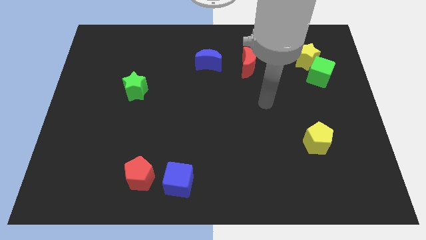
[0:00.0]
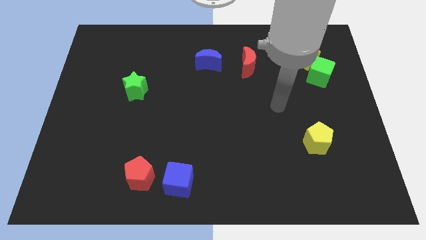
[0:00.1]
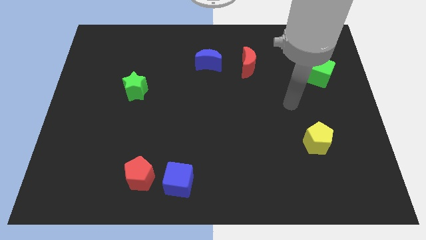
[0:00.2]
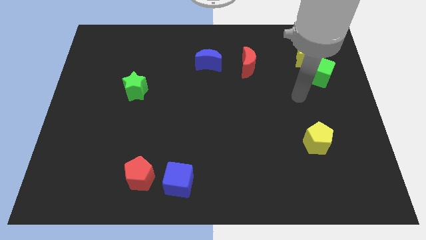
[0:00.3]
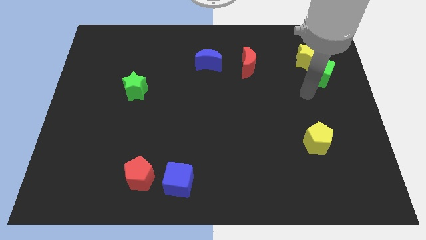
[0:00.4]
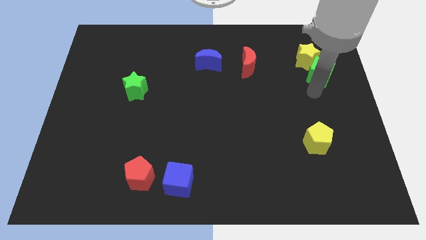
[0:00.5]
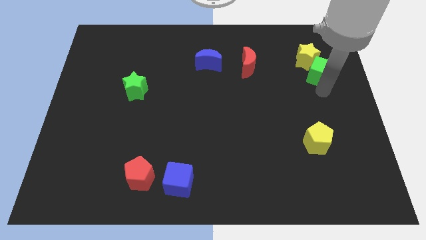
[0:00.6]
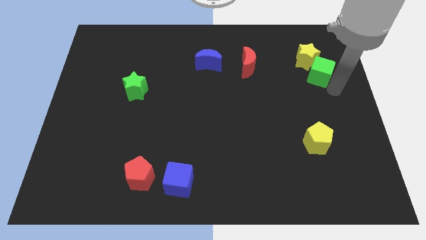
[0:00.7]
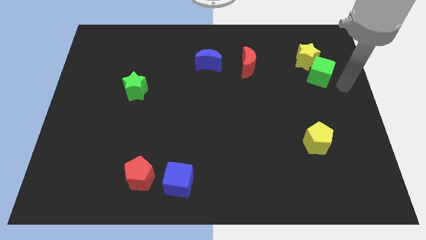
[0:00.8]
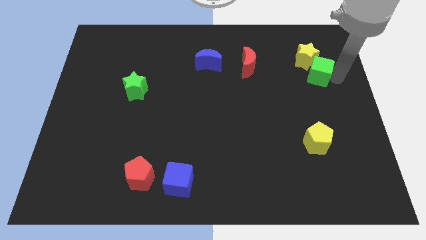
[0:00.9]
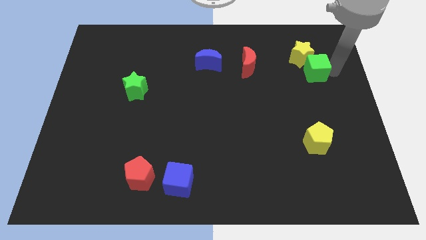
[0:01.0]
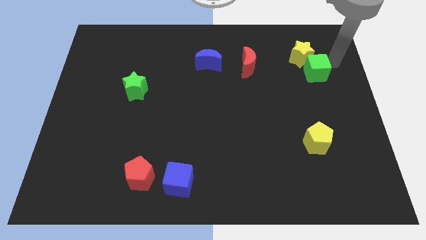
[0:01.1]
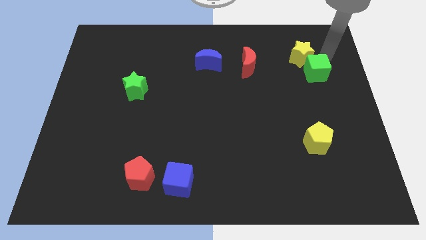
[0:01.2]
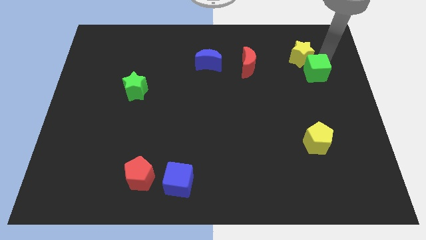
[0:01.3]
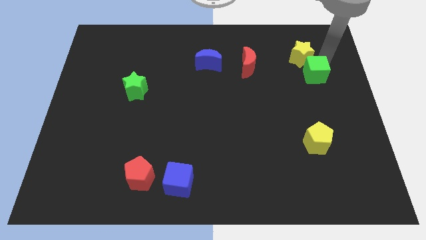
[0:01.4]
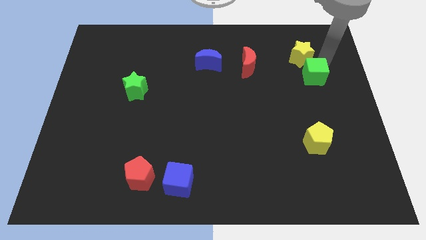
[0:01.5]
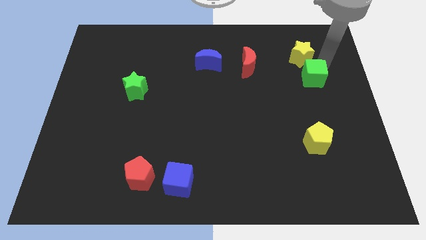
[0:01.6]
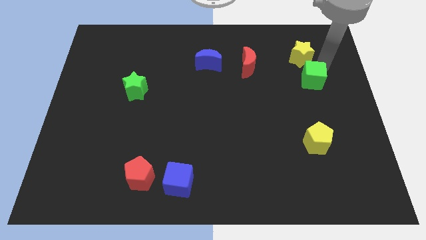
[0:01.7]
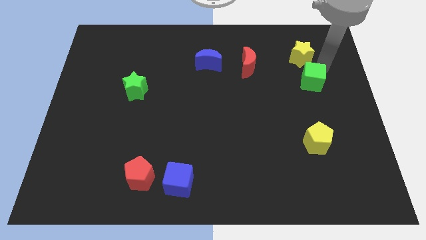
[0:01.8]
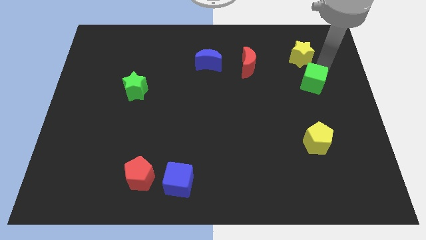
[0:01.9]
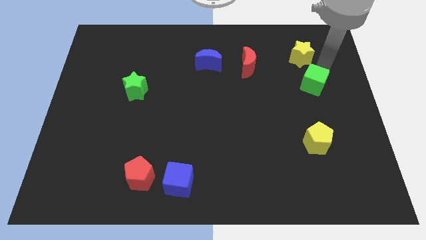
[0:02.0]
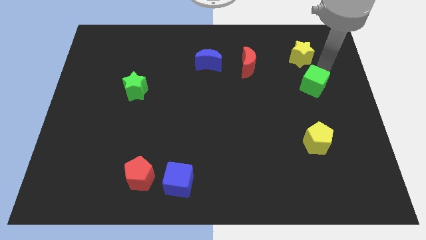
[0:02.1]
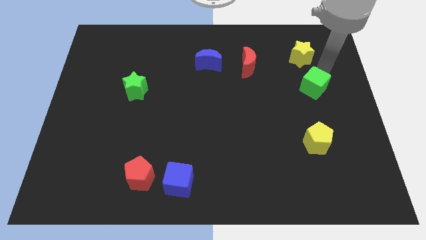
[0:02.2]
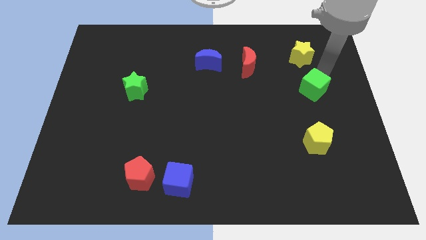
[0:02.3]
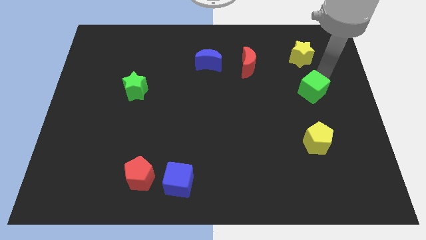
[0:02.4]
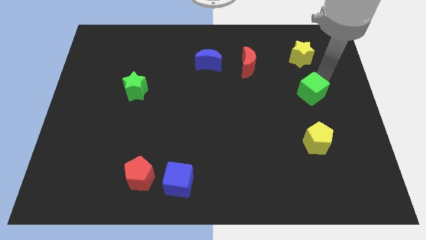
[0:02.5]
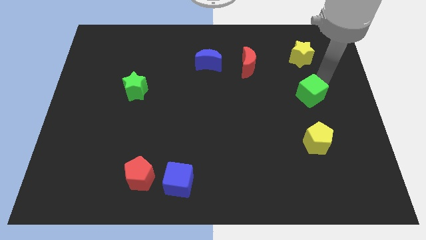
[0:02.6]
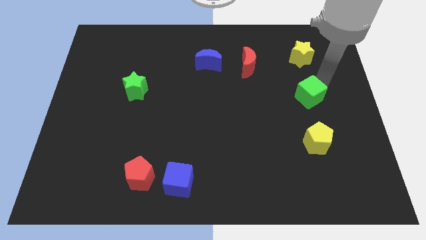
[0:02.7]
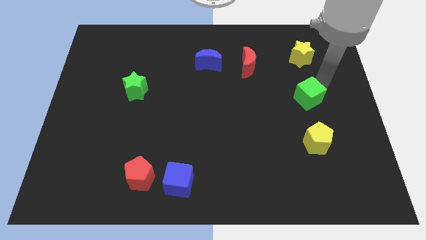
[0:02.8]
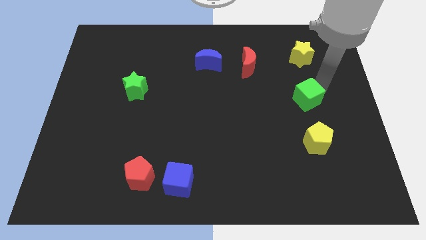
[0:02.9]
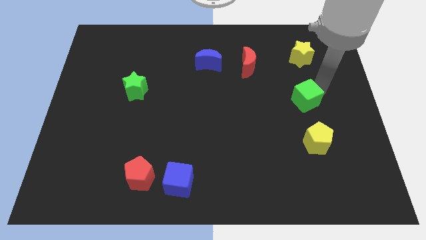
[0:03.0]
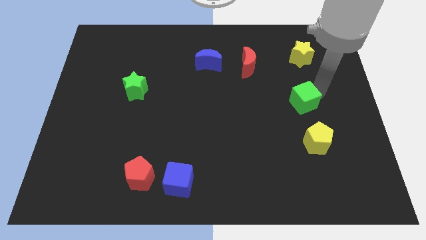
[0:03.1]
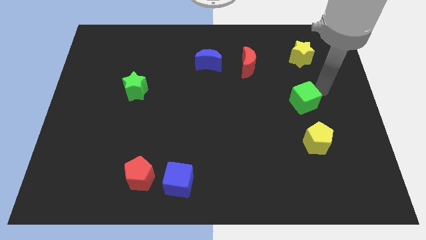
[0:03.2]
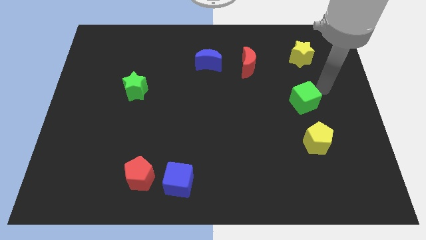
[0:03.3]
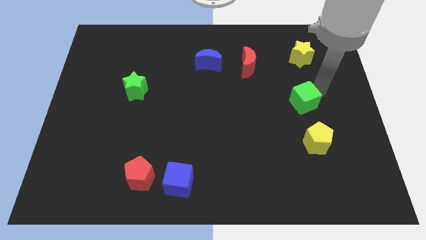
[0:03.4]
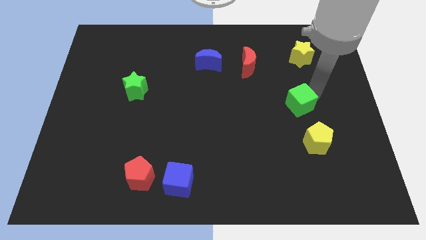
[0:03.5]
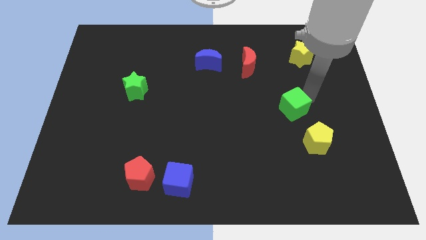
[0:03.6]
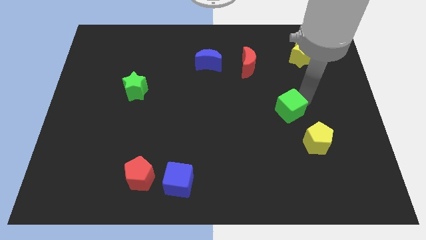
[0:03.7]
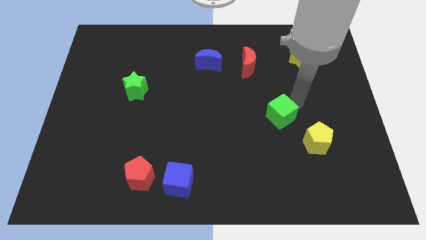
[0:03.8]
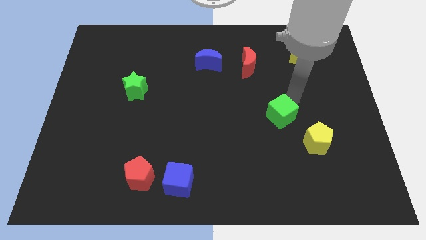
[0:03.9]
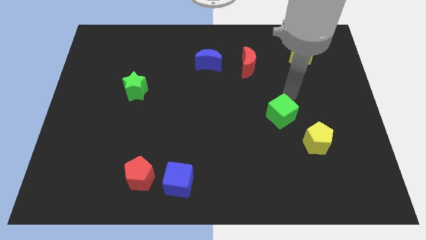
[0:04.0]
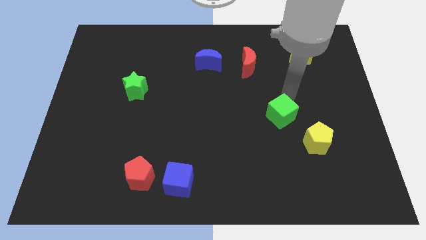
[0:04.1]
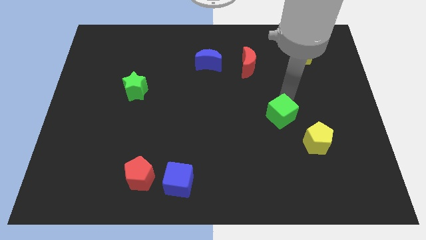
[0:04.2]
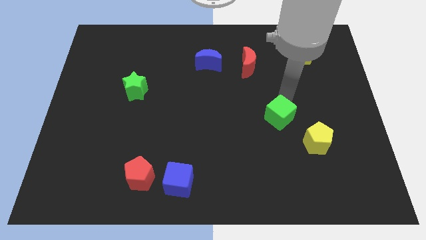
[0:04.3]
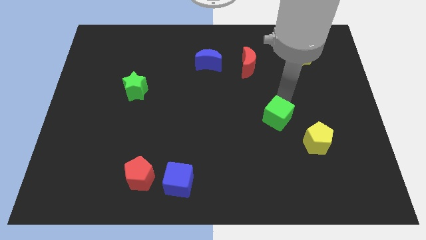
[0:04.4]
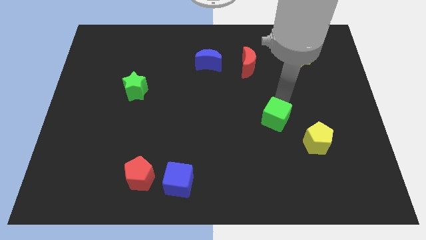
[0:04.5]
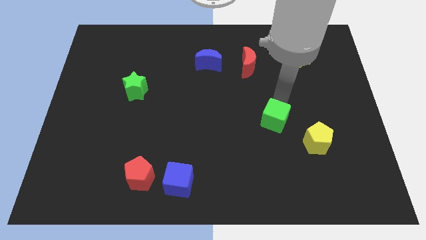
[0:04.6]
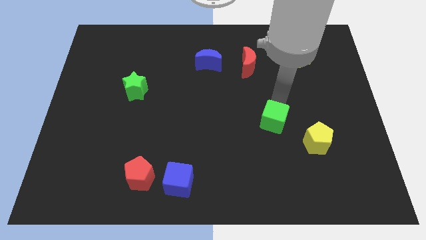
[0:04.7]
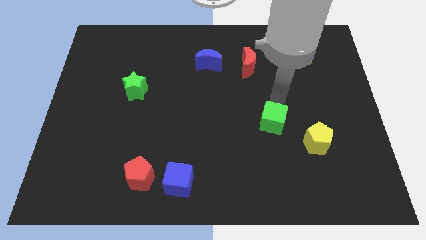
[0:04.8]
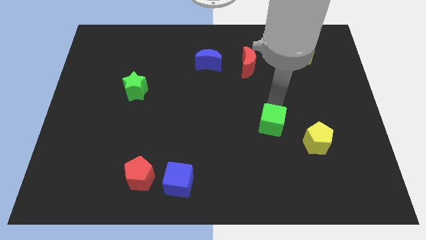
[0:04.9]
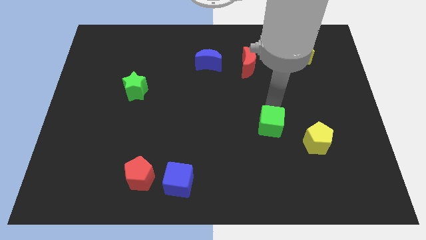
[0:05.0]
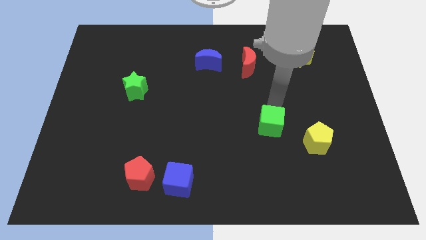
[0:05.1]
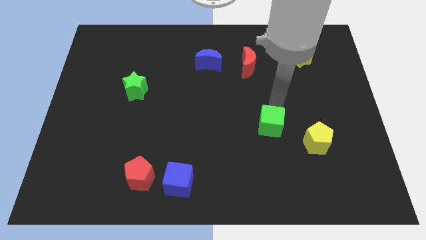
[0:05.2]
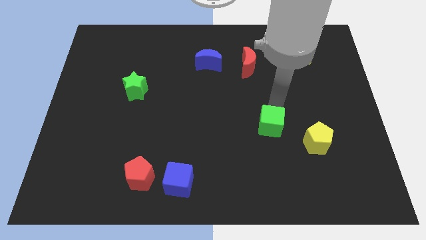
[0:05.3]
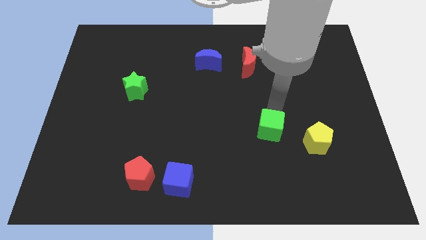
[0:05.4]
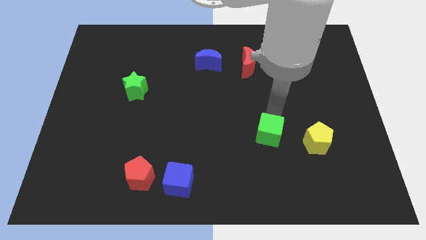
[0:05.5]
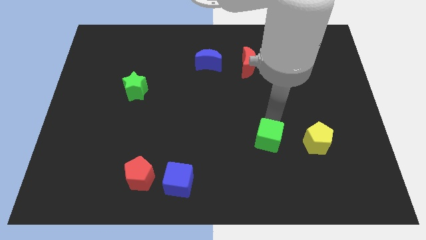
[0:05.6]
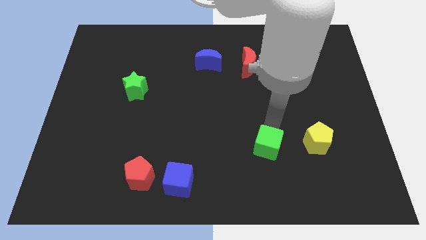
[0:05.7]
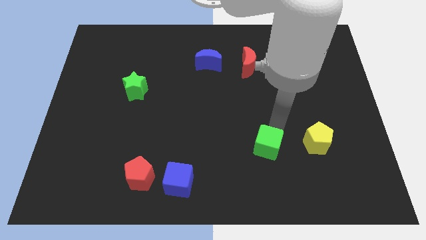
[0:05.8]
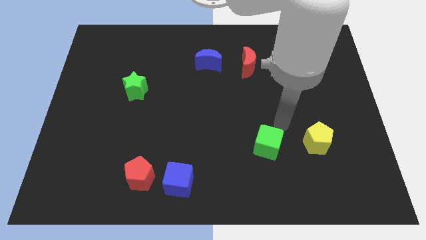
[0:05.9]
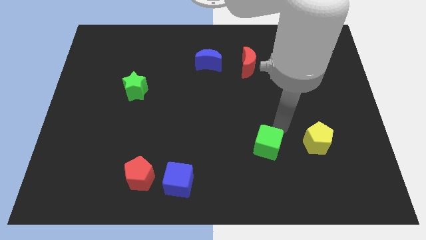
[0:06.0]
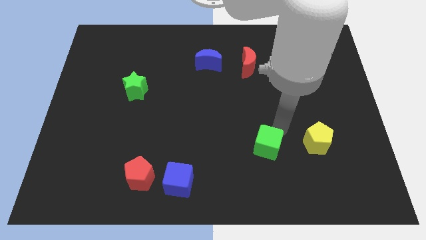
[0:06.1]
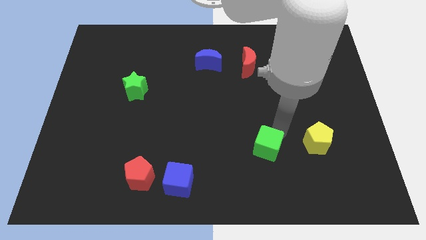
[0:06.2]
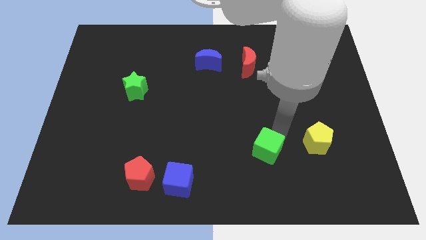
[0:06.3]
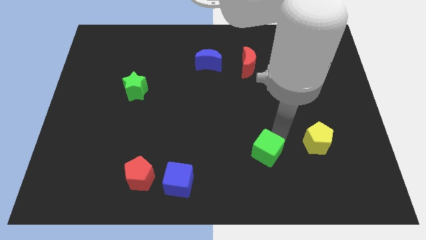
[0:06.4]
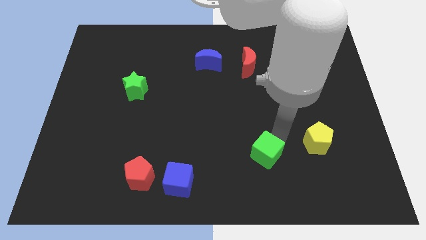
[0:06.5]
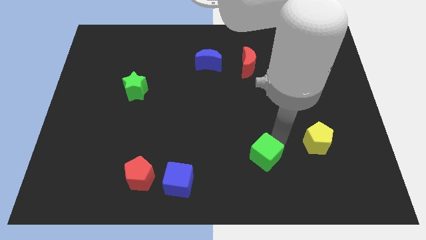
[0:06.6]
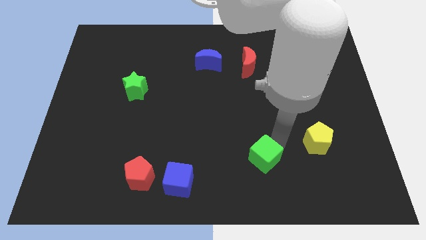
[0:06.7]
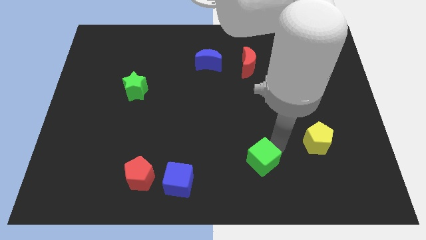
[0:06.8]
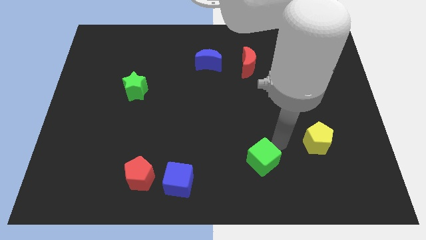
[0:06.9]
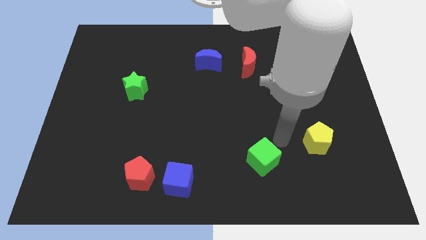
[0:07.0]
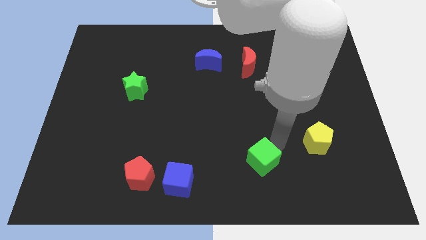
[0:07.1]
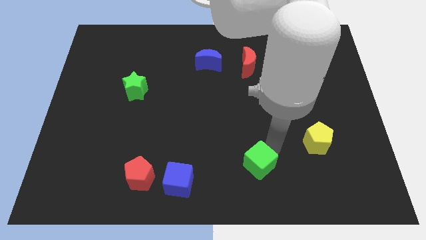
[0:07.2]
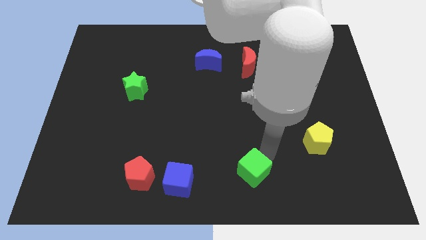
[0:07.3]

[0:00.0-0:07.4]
slide the green cube to the bottom side
